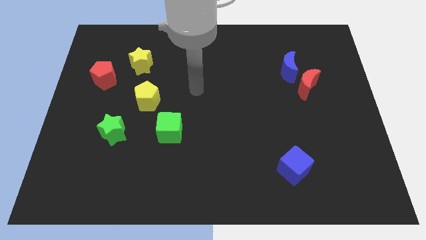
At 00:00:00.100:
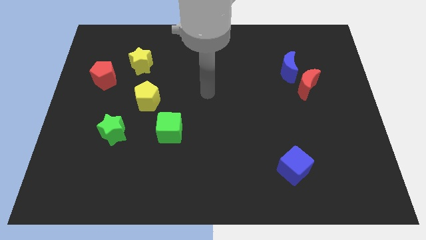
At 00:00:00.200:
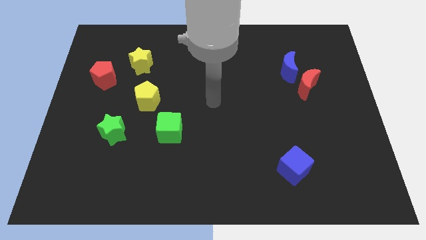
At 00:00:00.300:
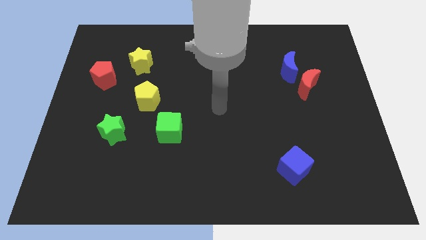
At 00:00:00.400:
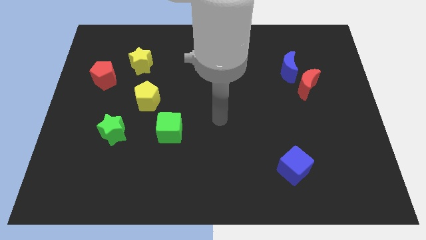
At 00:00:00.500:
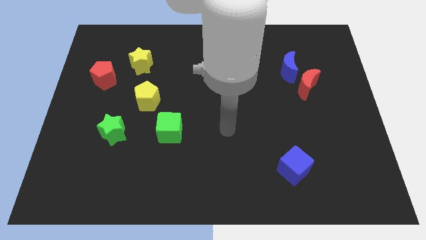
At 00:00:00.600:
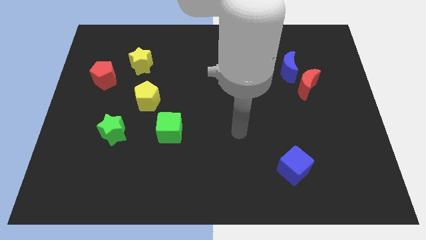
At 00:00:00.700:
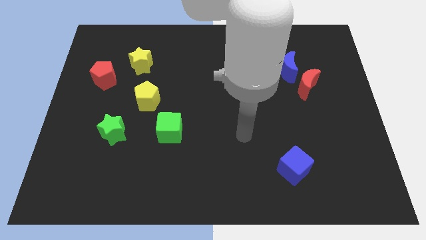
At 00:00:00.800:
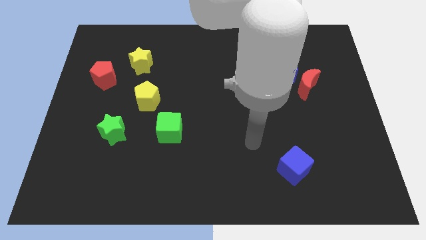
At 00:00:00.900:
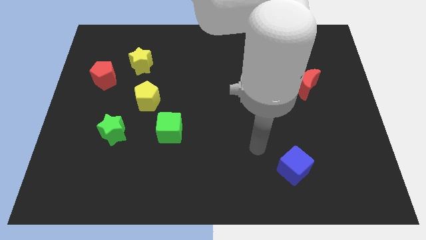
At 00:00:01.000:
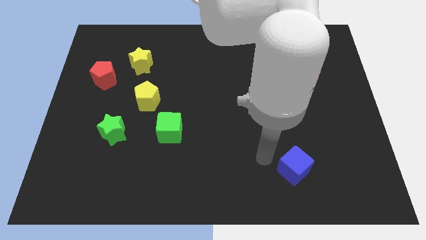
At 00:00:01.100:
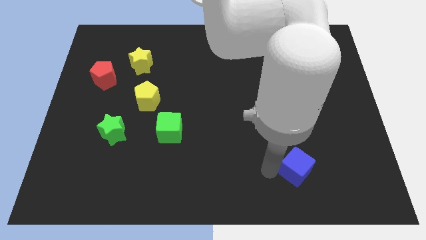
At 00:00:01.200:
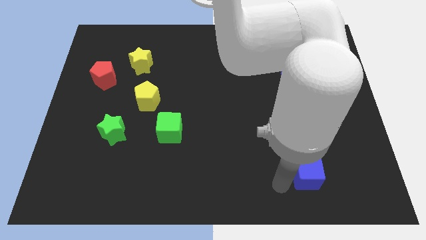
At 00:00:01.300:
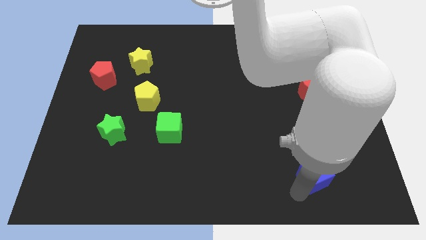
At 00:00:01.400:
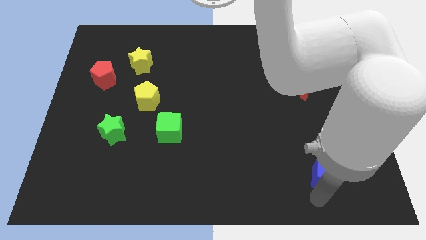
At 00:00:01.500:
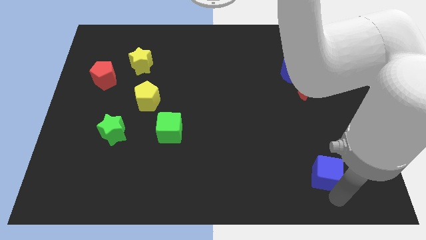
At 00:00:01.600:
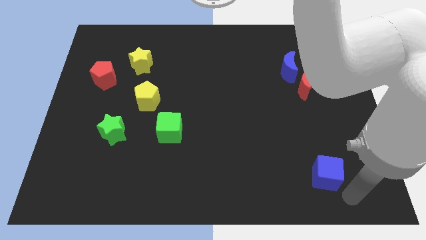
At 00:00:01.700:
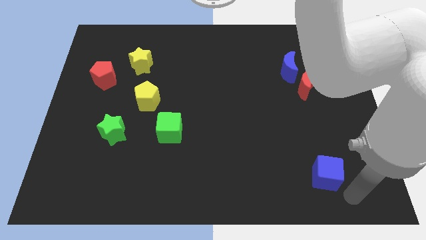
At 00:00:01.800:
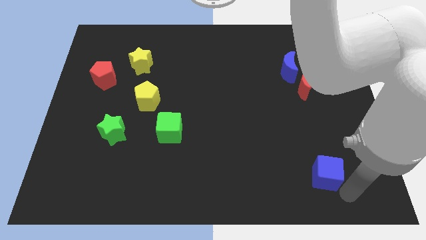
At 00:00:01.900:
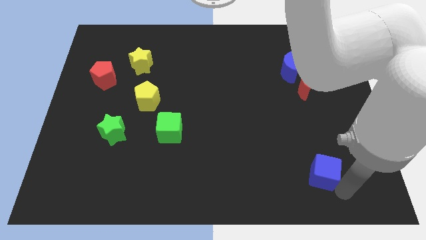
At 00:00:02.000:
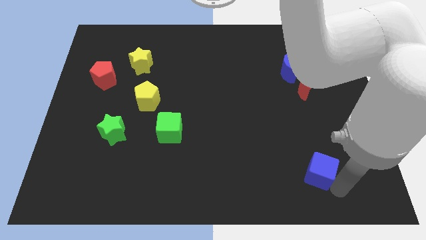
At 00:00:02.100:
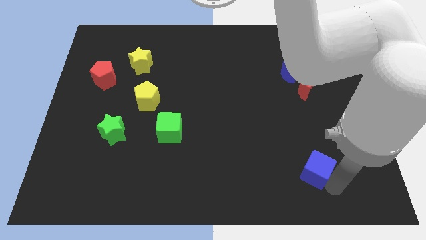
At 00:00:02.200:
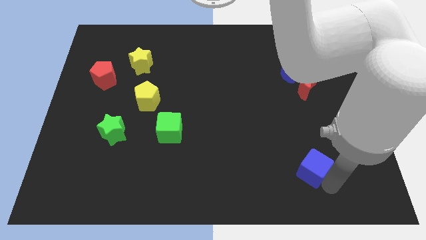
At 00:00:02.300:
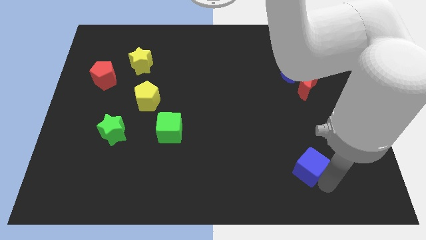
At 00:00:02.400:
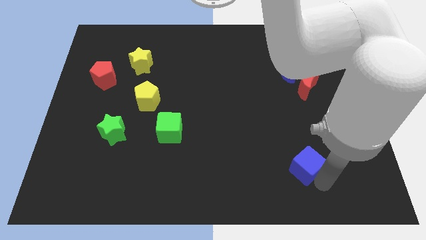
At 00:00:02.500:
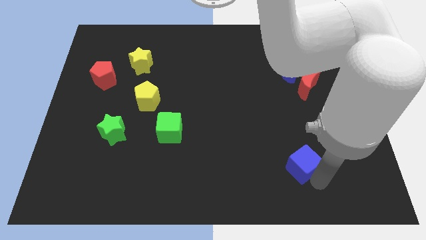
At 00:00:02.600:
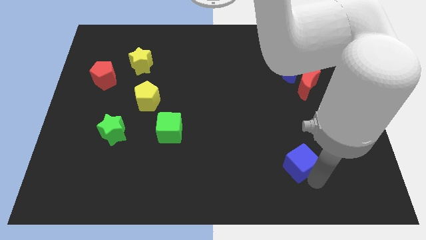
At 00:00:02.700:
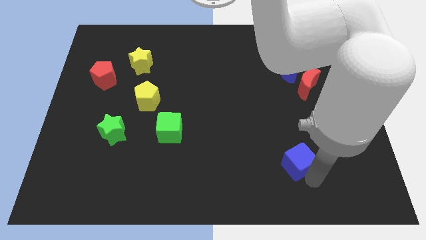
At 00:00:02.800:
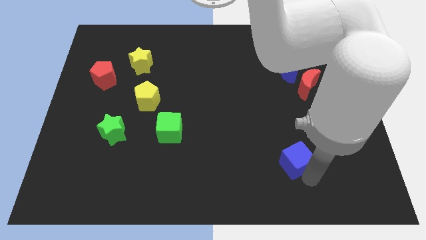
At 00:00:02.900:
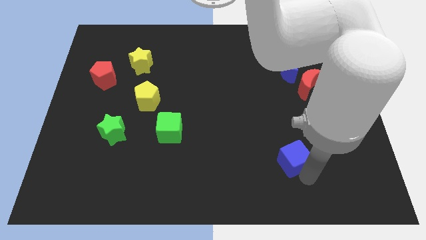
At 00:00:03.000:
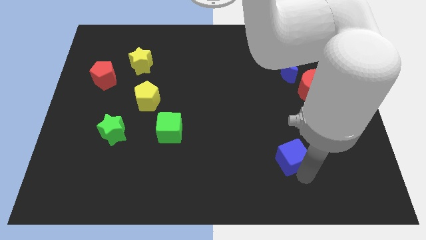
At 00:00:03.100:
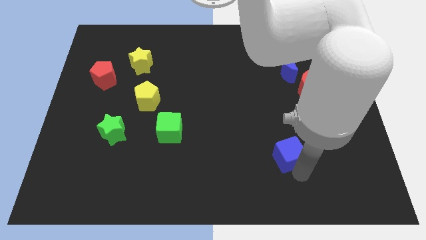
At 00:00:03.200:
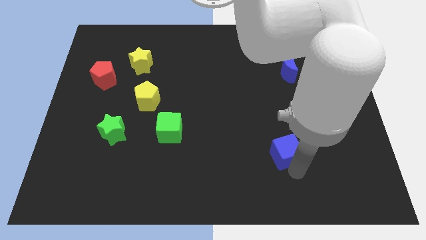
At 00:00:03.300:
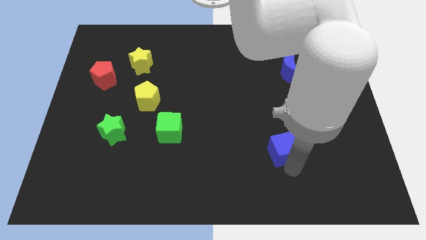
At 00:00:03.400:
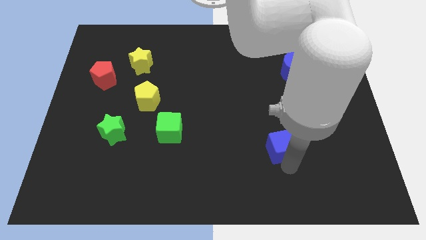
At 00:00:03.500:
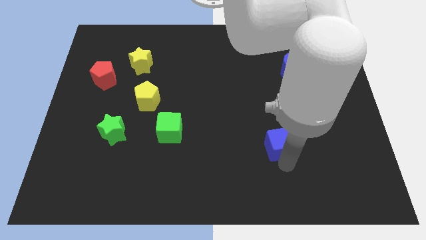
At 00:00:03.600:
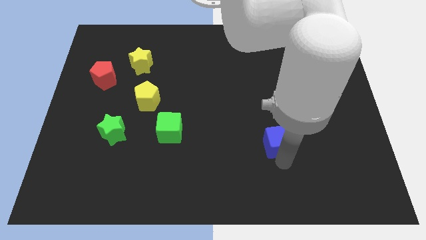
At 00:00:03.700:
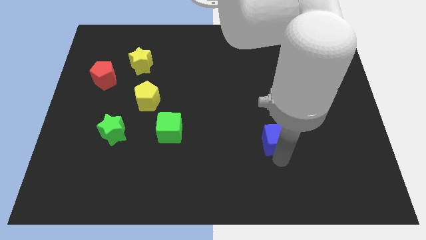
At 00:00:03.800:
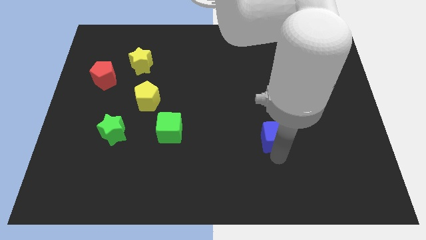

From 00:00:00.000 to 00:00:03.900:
push the blue cube a little upwards

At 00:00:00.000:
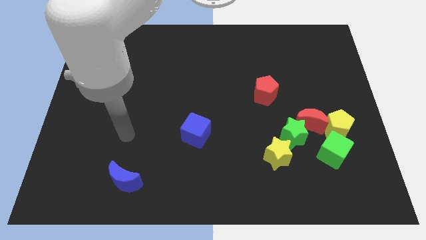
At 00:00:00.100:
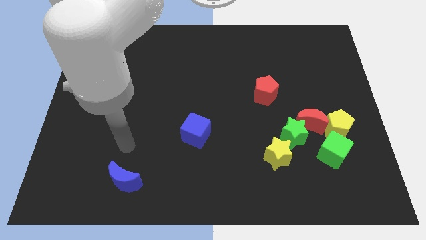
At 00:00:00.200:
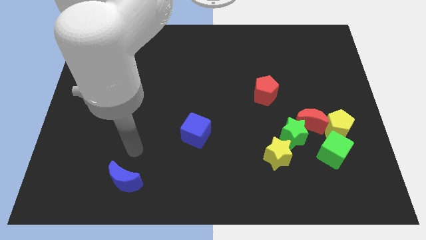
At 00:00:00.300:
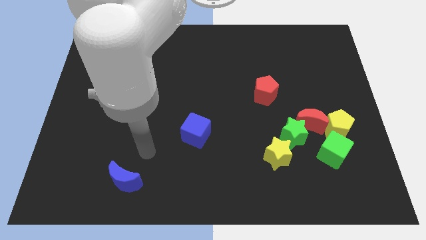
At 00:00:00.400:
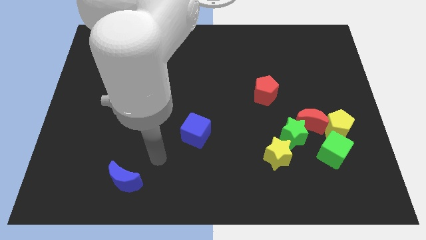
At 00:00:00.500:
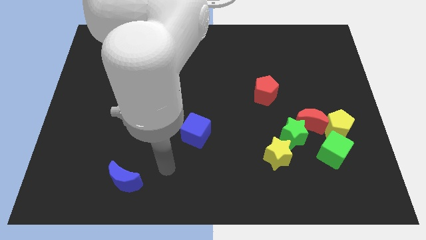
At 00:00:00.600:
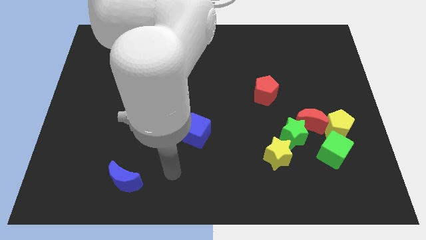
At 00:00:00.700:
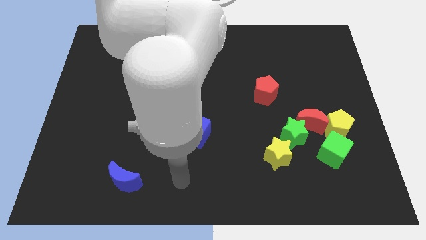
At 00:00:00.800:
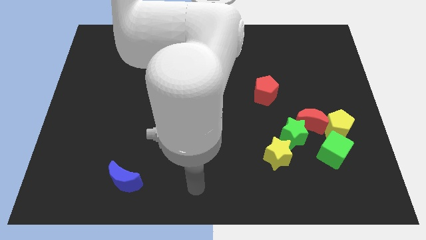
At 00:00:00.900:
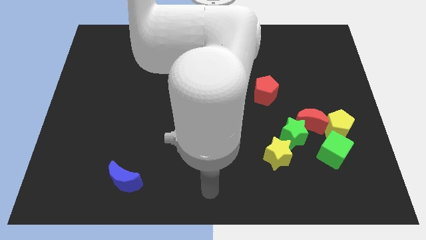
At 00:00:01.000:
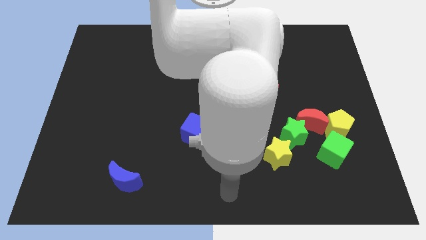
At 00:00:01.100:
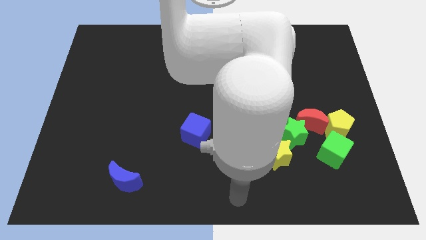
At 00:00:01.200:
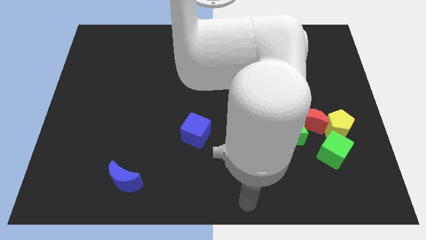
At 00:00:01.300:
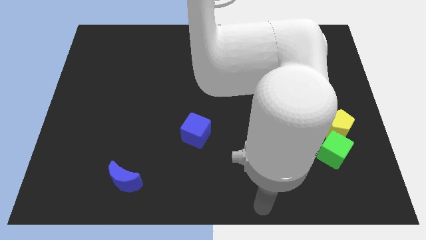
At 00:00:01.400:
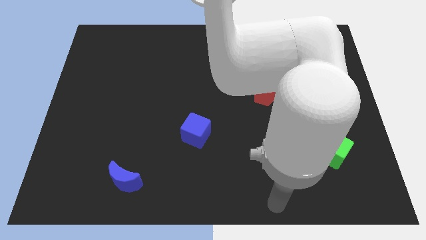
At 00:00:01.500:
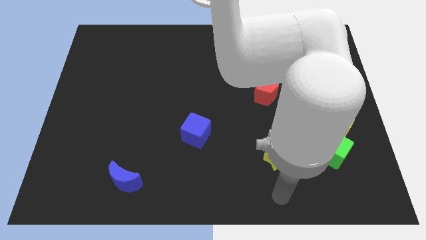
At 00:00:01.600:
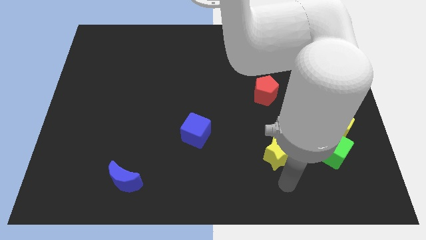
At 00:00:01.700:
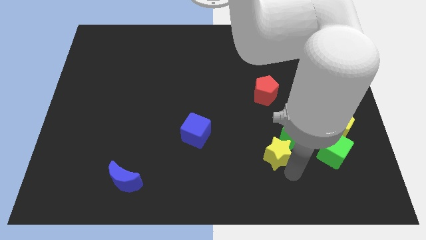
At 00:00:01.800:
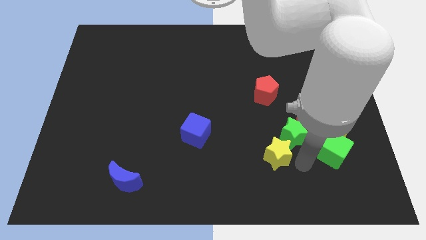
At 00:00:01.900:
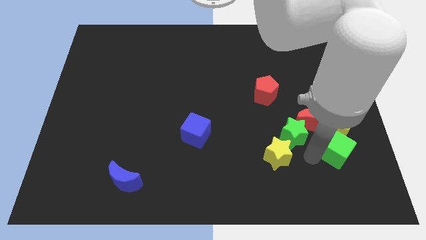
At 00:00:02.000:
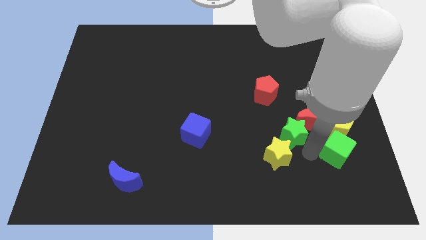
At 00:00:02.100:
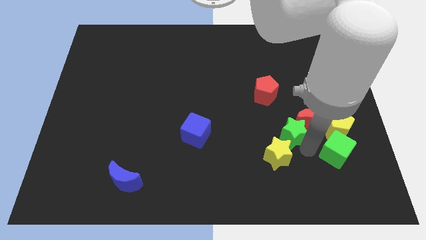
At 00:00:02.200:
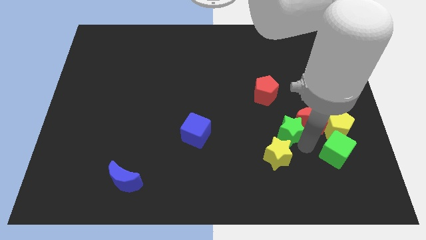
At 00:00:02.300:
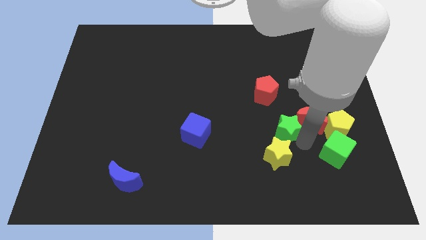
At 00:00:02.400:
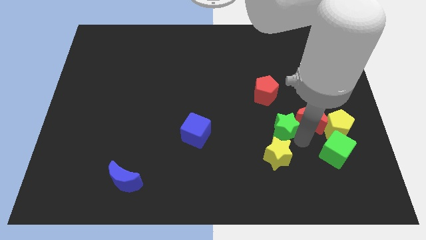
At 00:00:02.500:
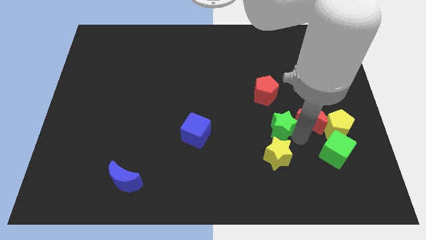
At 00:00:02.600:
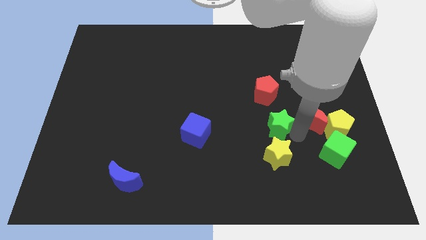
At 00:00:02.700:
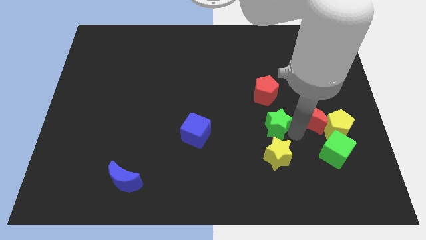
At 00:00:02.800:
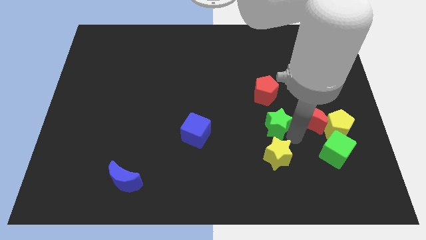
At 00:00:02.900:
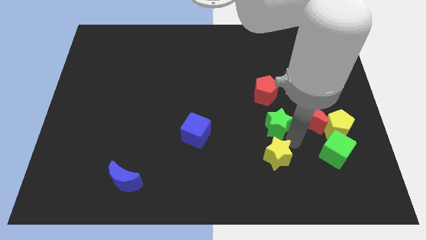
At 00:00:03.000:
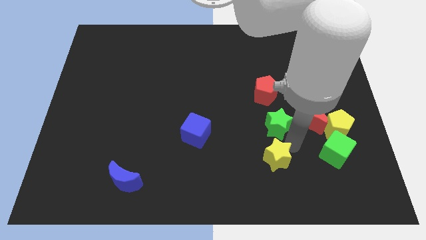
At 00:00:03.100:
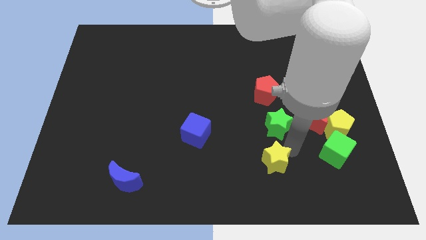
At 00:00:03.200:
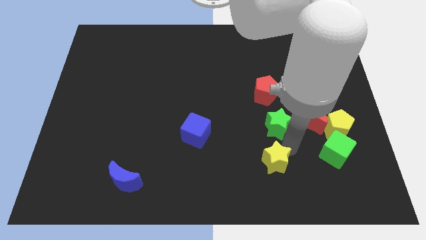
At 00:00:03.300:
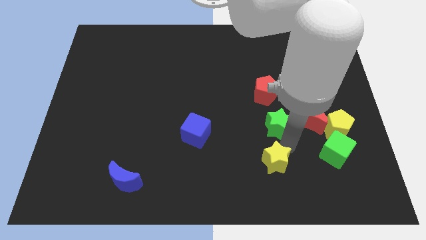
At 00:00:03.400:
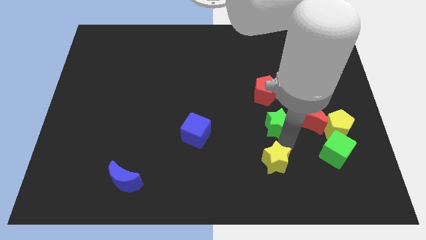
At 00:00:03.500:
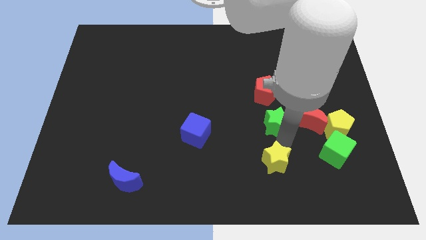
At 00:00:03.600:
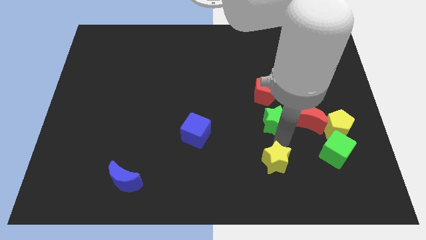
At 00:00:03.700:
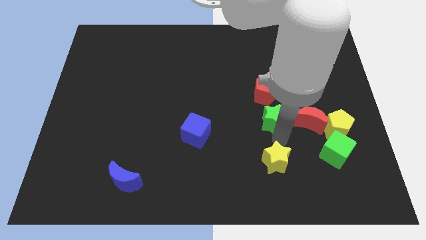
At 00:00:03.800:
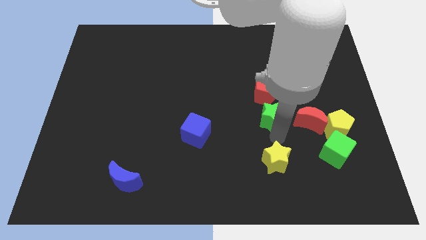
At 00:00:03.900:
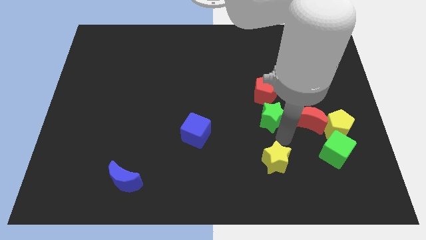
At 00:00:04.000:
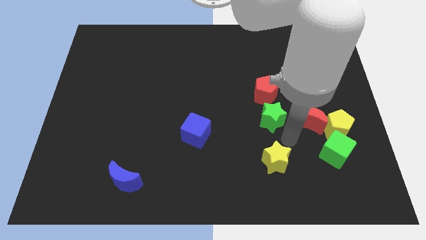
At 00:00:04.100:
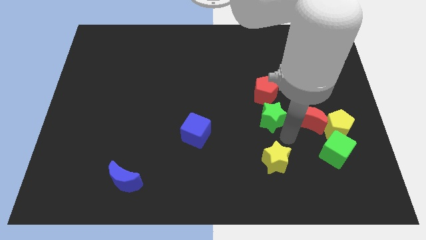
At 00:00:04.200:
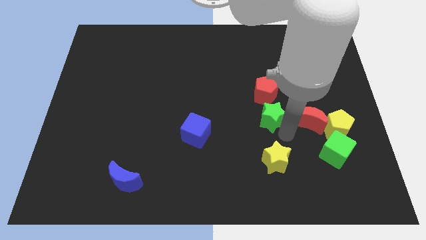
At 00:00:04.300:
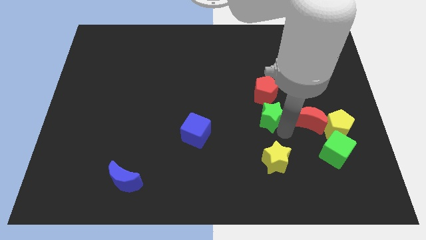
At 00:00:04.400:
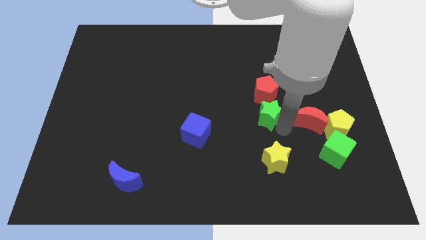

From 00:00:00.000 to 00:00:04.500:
slightly push the green star upwards and then left
